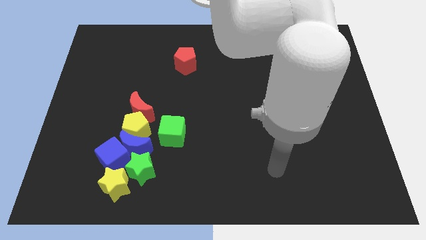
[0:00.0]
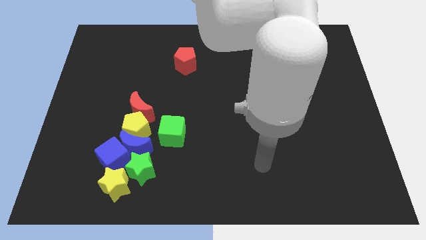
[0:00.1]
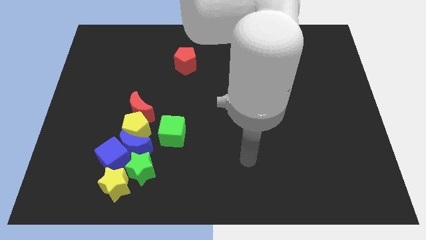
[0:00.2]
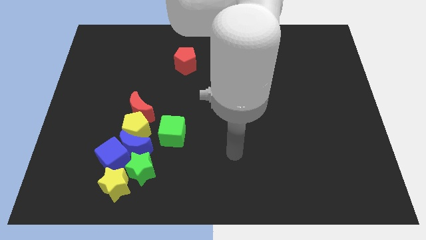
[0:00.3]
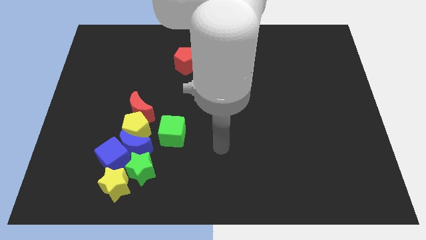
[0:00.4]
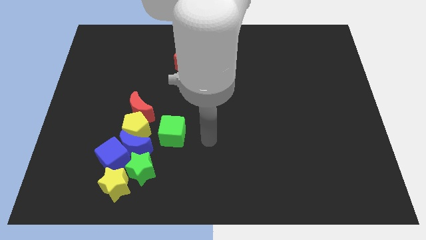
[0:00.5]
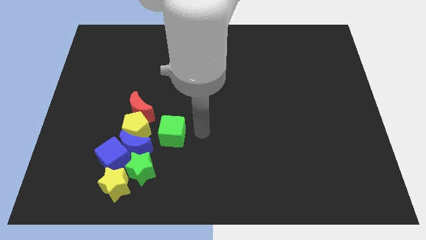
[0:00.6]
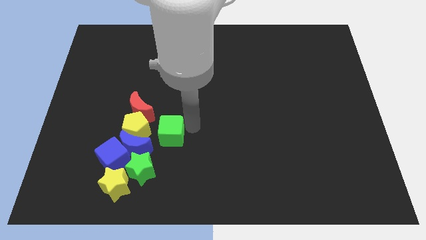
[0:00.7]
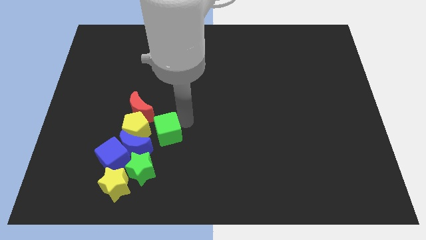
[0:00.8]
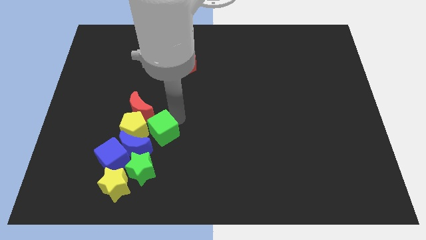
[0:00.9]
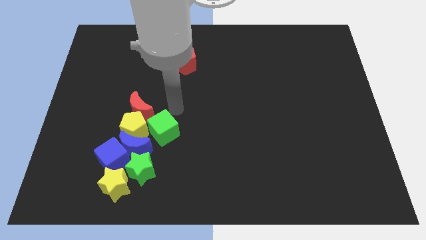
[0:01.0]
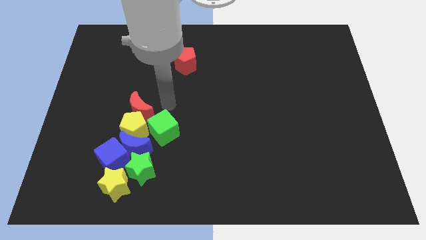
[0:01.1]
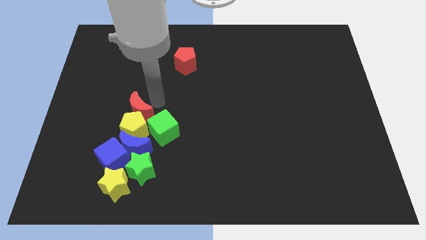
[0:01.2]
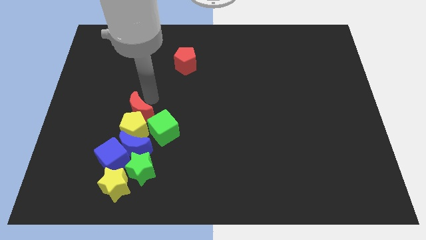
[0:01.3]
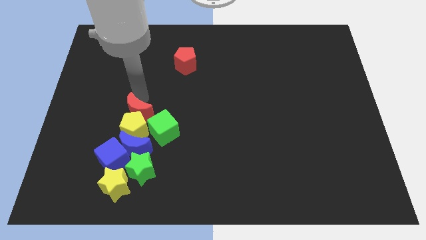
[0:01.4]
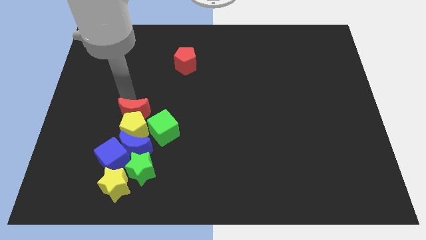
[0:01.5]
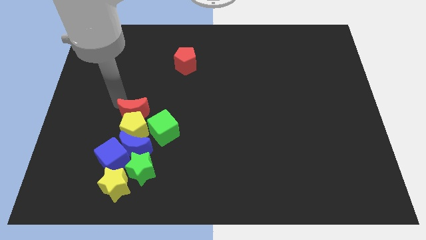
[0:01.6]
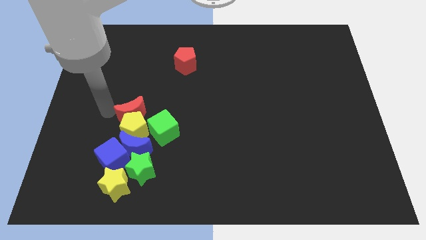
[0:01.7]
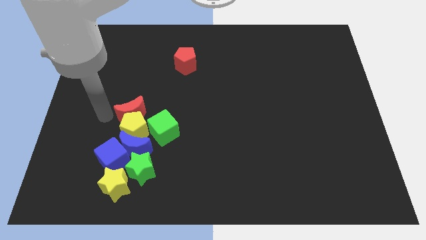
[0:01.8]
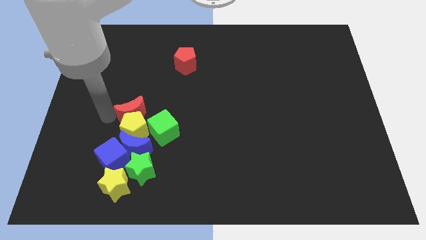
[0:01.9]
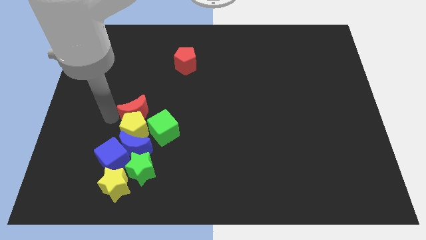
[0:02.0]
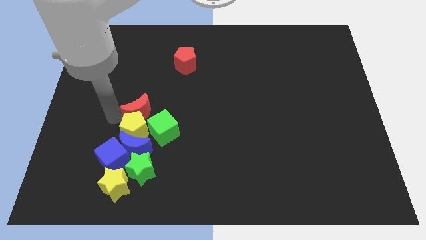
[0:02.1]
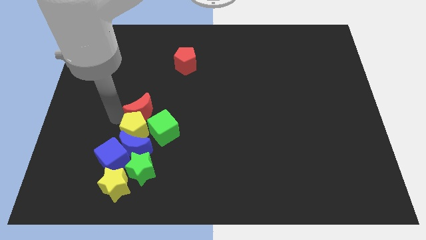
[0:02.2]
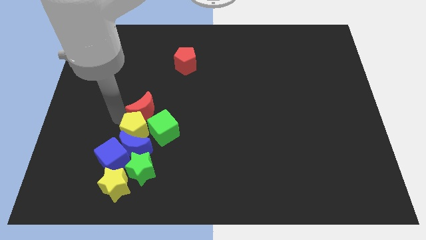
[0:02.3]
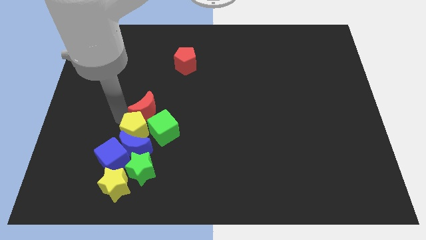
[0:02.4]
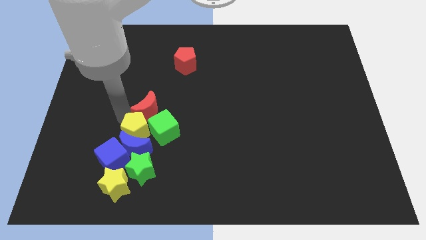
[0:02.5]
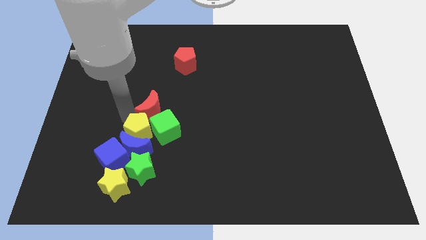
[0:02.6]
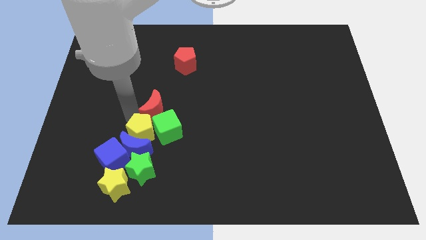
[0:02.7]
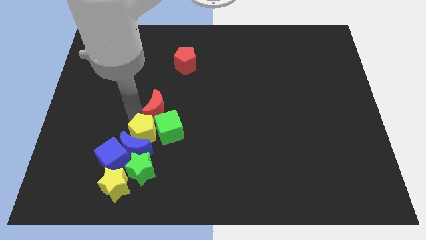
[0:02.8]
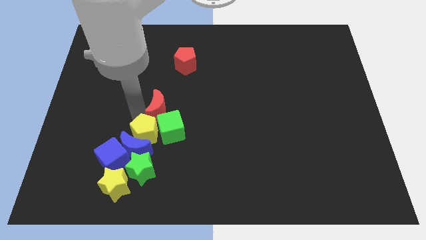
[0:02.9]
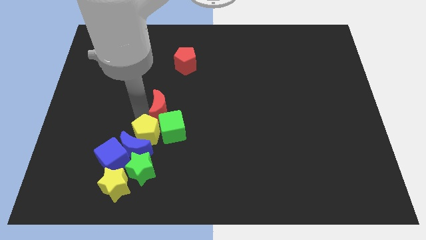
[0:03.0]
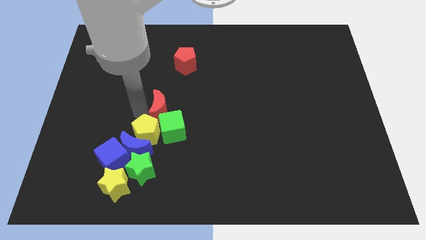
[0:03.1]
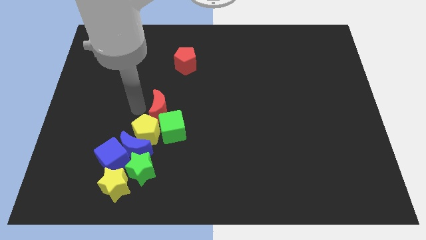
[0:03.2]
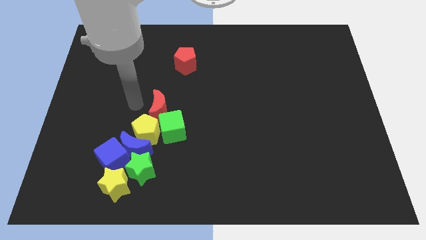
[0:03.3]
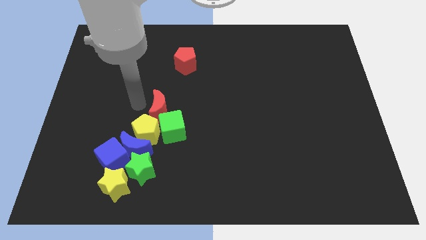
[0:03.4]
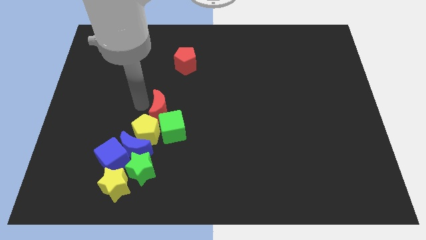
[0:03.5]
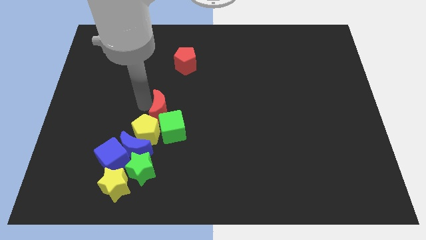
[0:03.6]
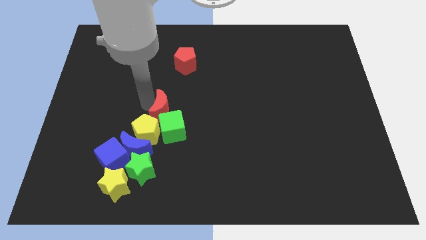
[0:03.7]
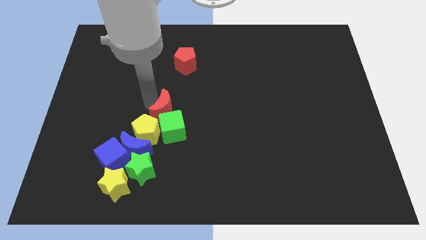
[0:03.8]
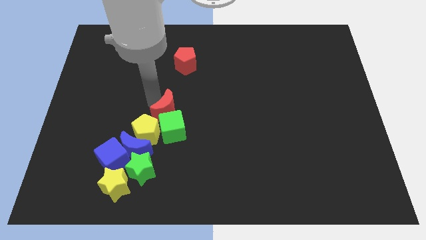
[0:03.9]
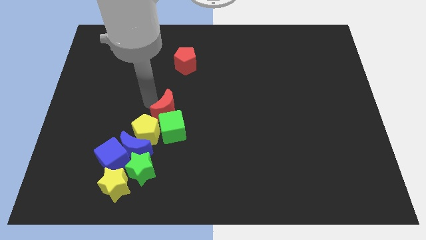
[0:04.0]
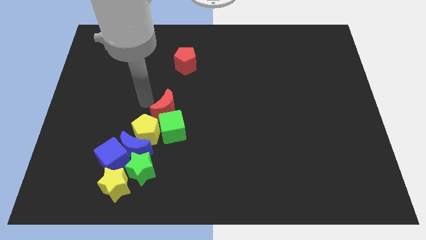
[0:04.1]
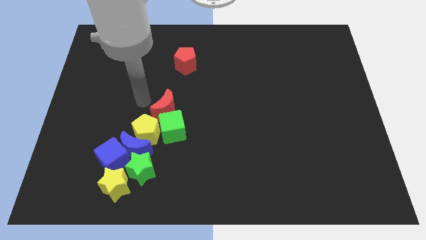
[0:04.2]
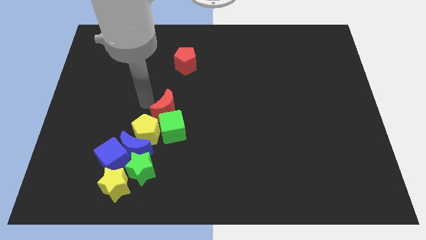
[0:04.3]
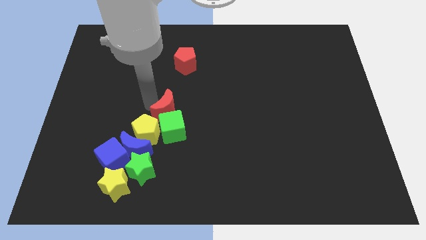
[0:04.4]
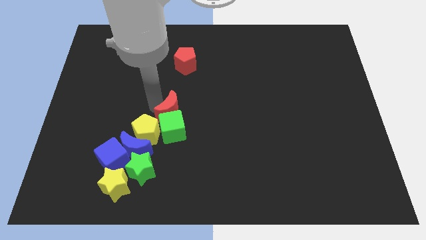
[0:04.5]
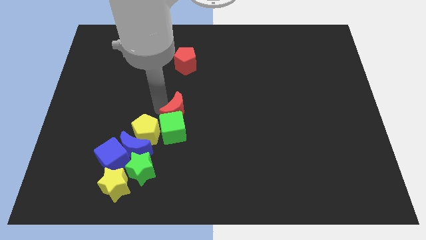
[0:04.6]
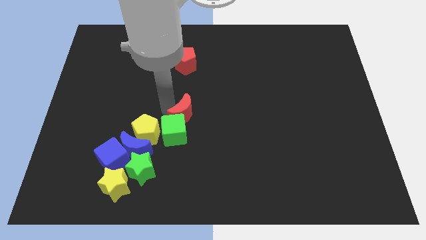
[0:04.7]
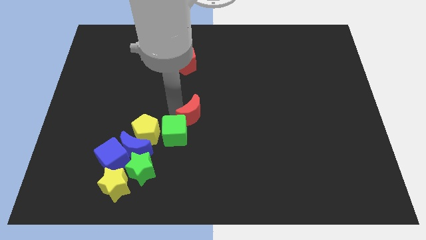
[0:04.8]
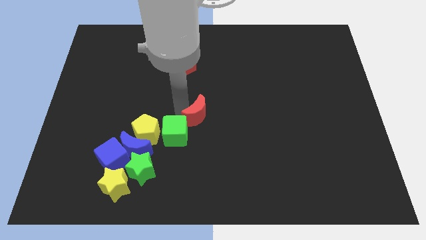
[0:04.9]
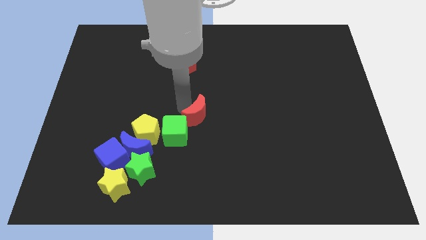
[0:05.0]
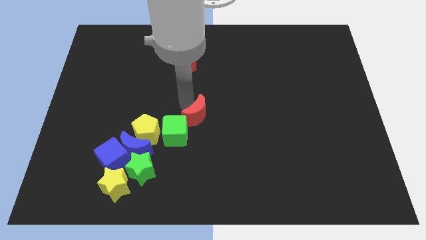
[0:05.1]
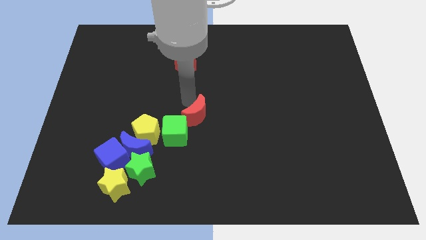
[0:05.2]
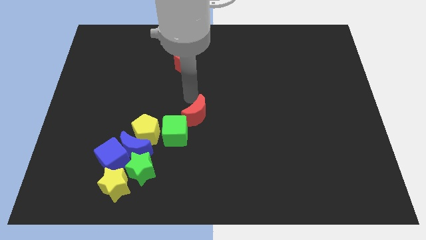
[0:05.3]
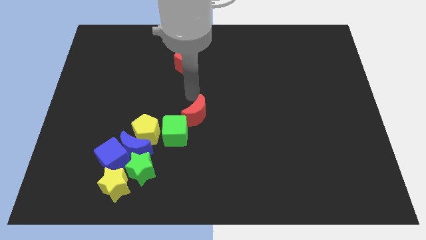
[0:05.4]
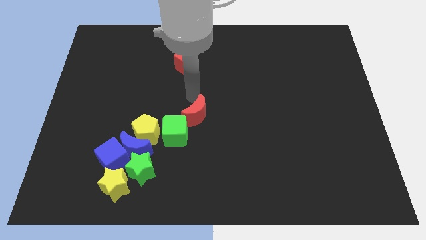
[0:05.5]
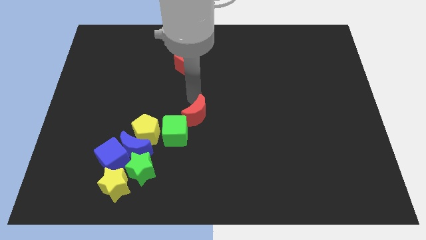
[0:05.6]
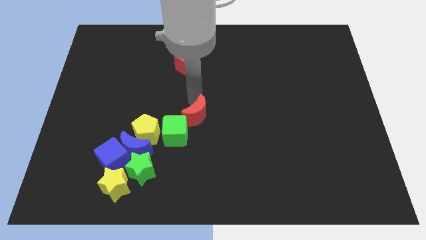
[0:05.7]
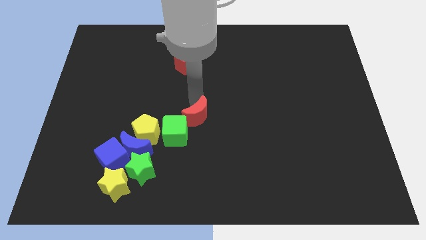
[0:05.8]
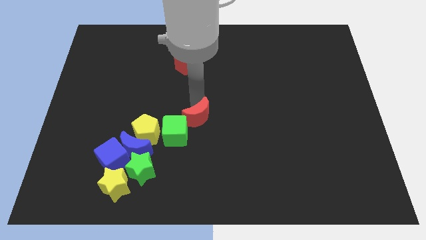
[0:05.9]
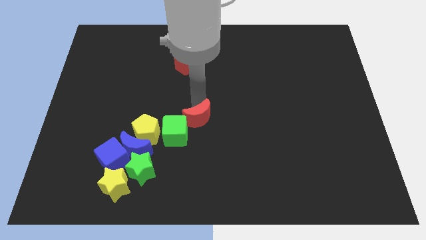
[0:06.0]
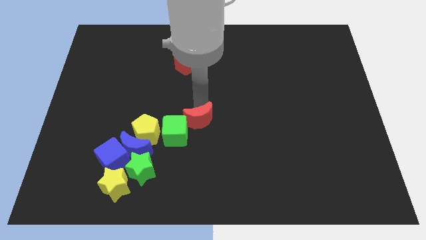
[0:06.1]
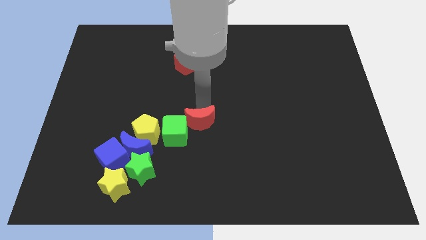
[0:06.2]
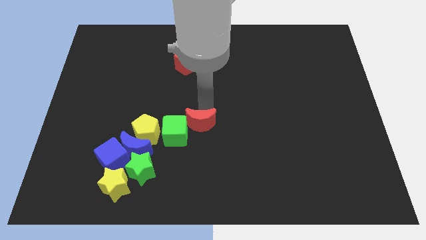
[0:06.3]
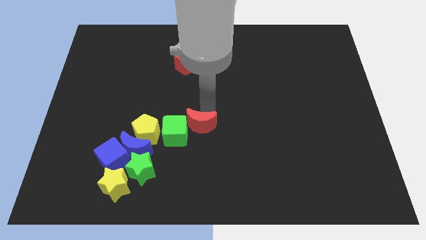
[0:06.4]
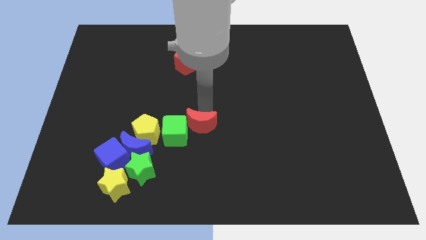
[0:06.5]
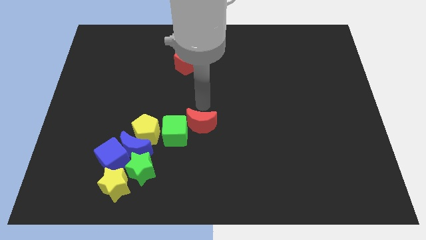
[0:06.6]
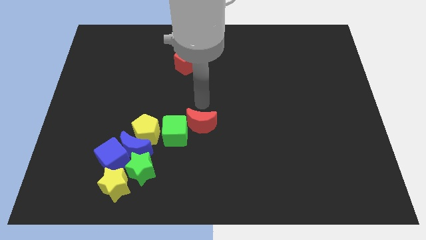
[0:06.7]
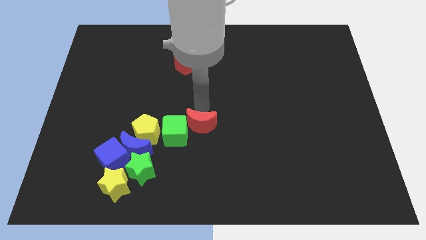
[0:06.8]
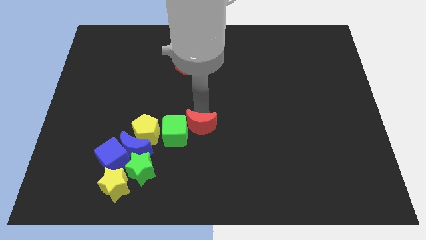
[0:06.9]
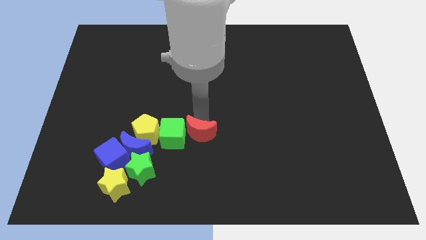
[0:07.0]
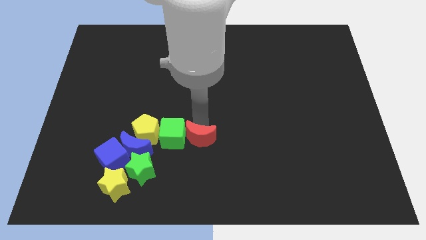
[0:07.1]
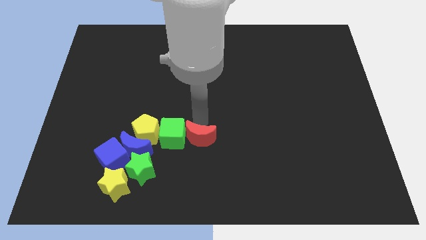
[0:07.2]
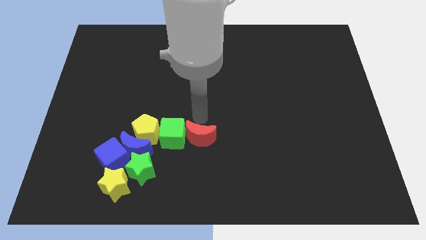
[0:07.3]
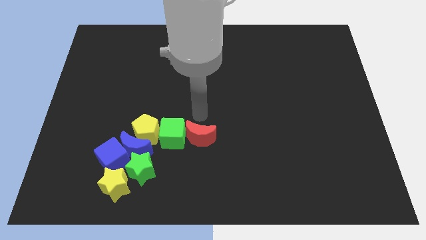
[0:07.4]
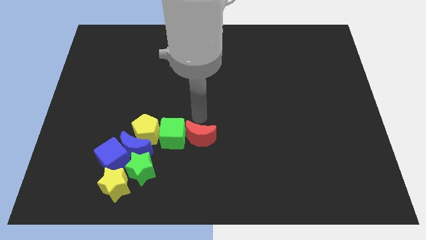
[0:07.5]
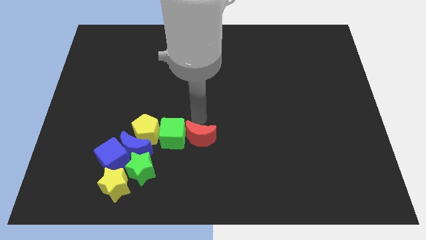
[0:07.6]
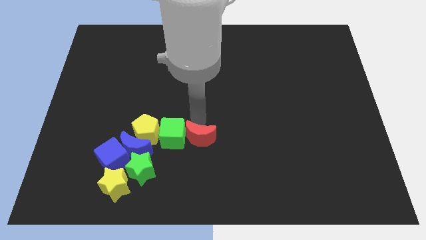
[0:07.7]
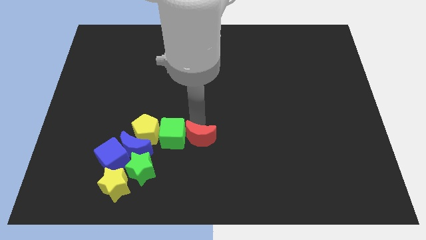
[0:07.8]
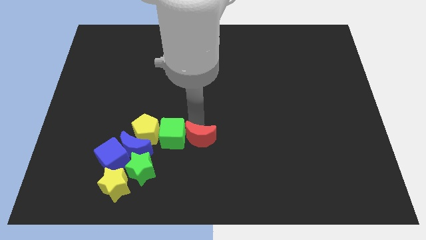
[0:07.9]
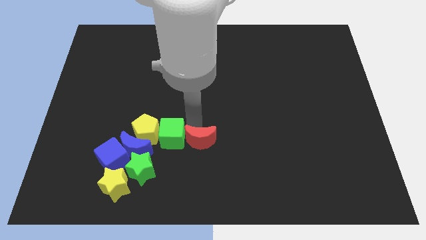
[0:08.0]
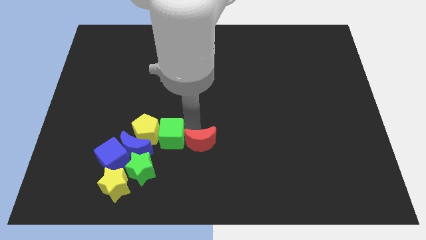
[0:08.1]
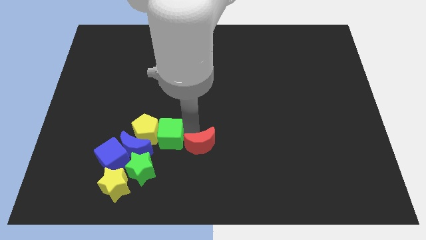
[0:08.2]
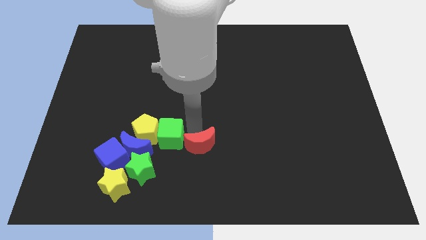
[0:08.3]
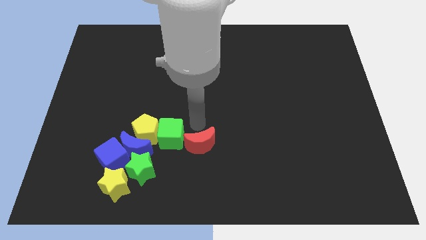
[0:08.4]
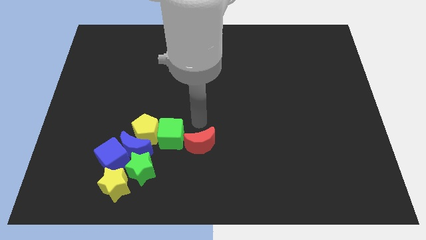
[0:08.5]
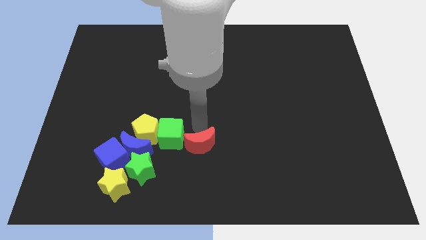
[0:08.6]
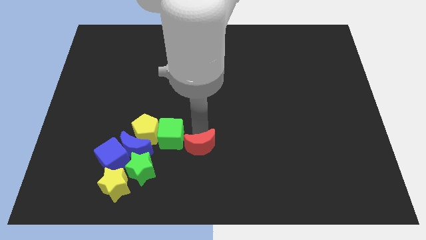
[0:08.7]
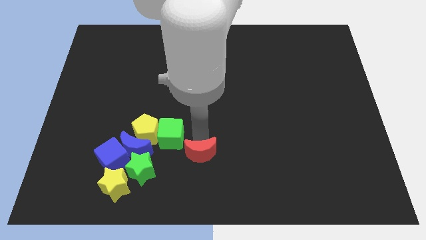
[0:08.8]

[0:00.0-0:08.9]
put the red moon to the bottom side
